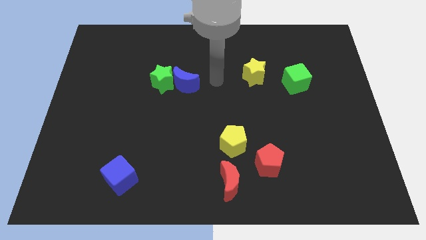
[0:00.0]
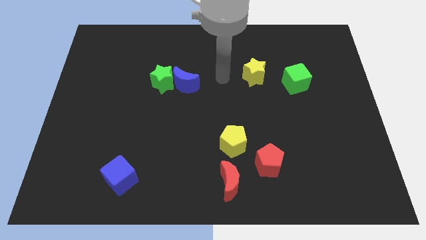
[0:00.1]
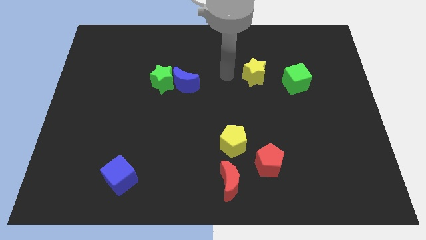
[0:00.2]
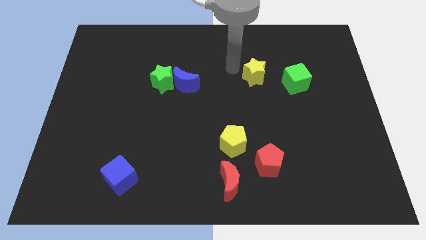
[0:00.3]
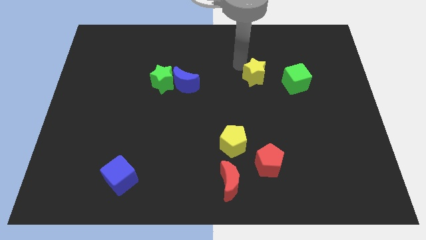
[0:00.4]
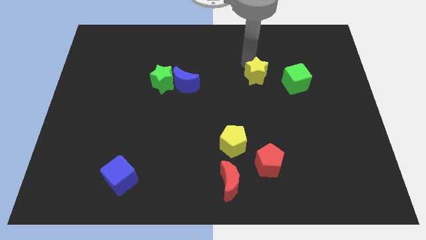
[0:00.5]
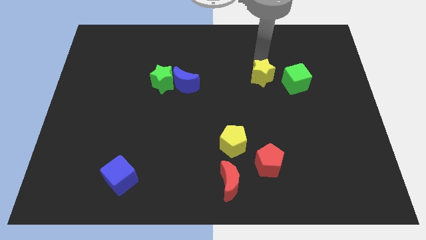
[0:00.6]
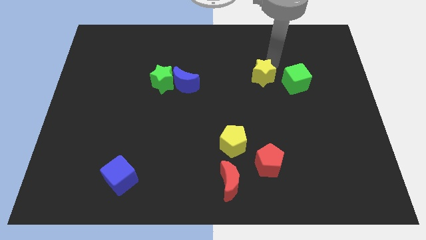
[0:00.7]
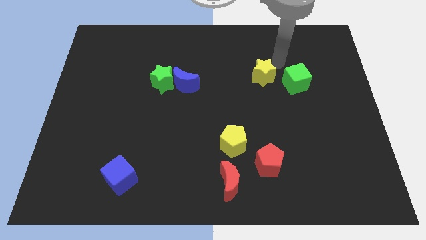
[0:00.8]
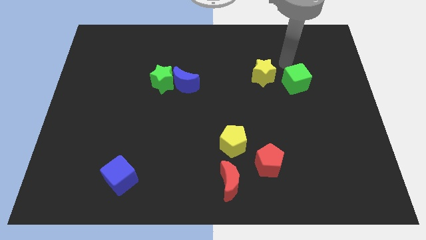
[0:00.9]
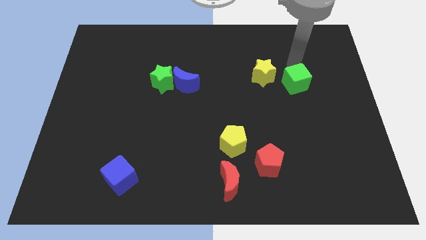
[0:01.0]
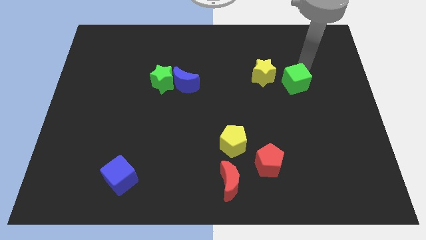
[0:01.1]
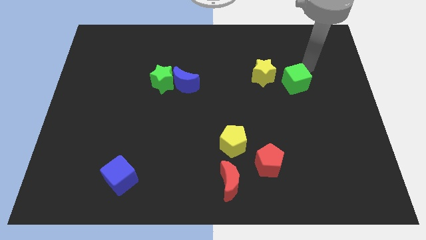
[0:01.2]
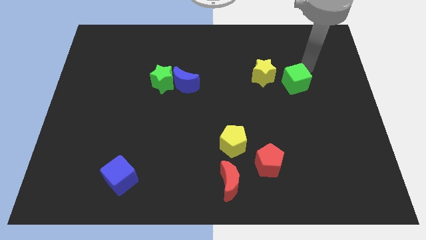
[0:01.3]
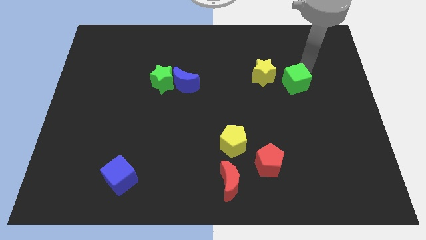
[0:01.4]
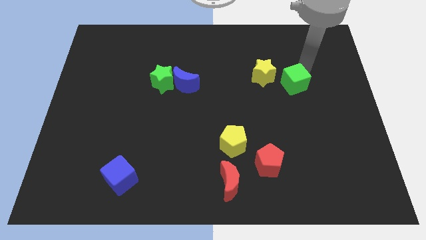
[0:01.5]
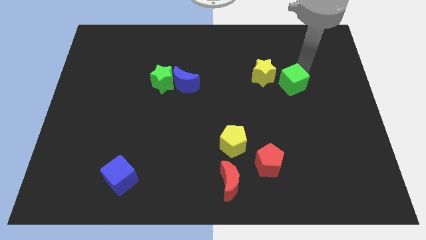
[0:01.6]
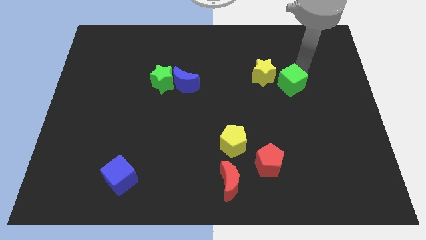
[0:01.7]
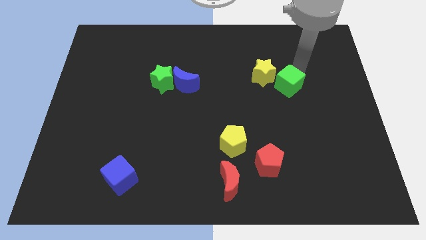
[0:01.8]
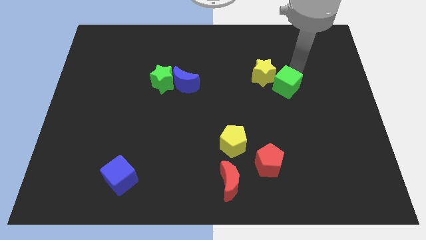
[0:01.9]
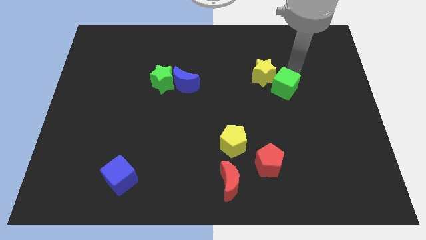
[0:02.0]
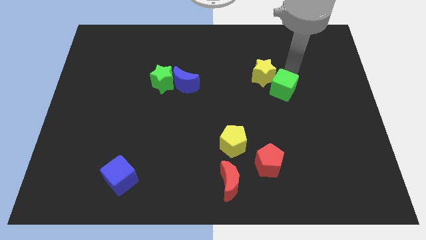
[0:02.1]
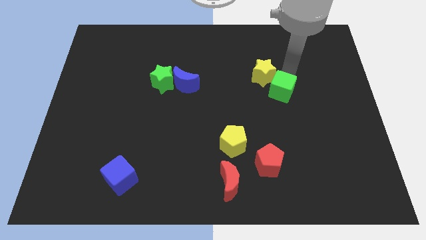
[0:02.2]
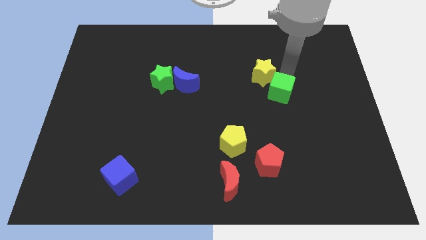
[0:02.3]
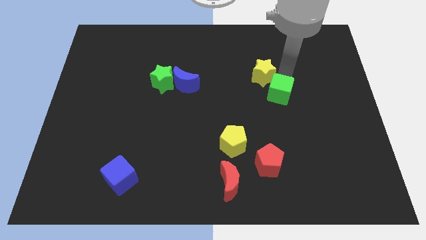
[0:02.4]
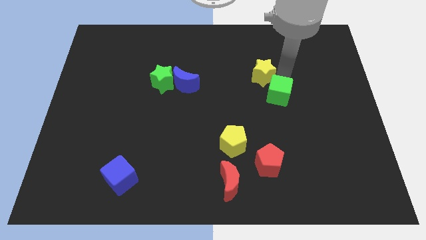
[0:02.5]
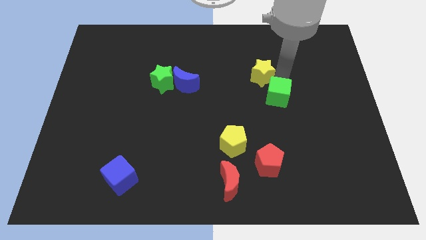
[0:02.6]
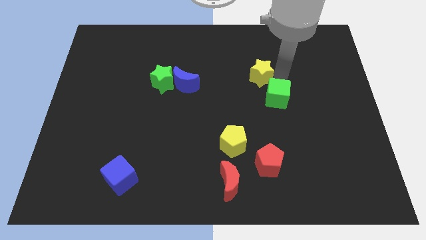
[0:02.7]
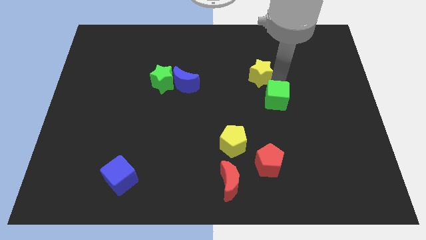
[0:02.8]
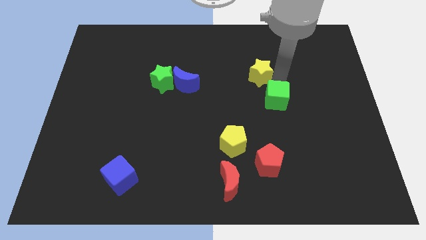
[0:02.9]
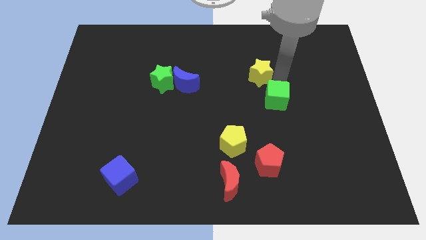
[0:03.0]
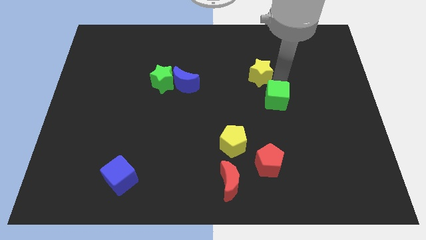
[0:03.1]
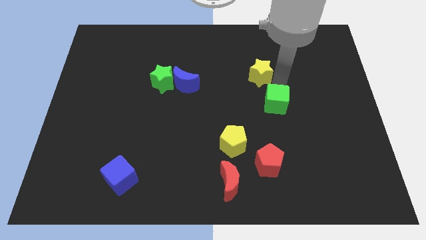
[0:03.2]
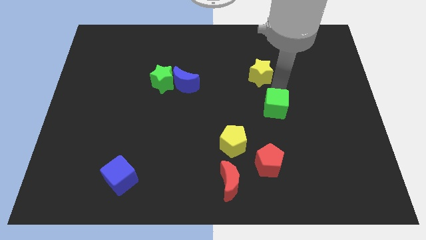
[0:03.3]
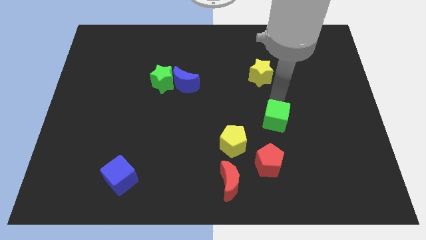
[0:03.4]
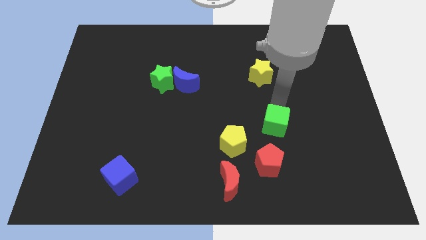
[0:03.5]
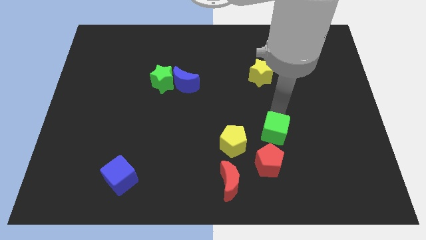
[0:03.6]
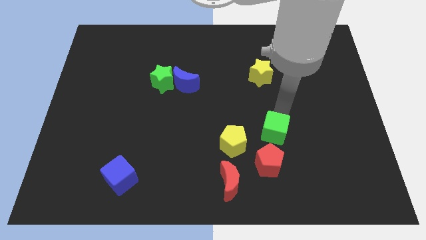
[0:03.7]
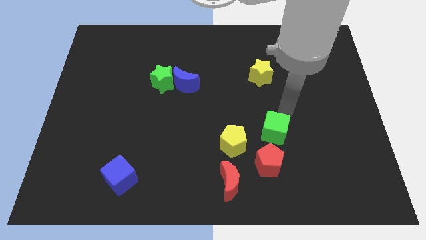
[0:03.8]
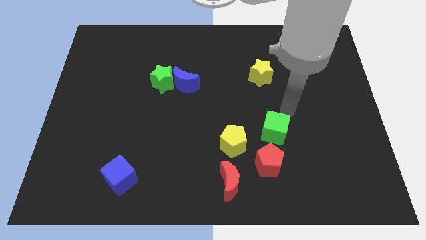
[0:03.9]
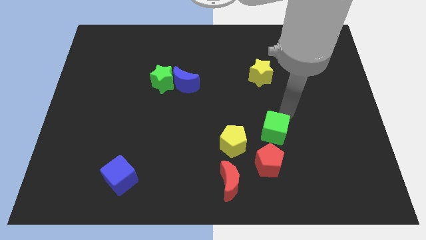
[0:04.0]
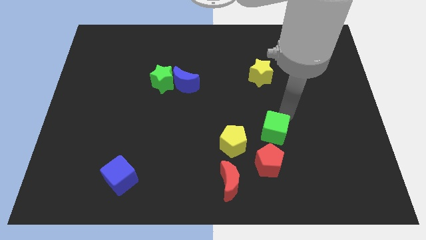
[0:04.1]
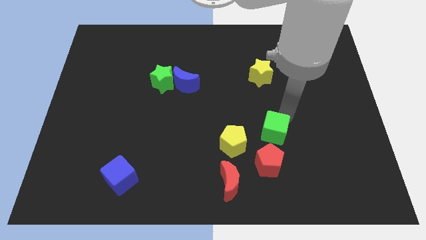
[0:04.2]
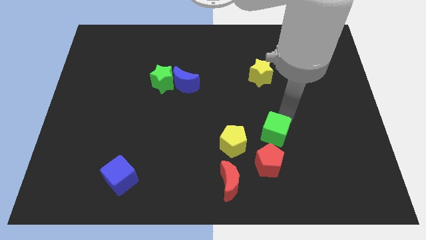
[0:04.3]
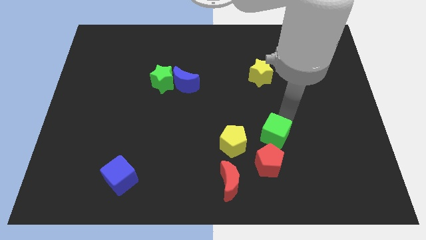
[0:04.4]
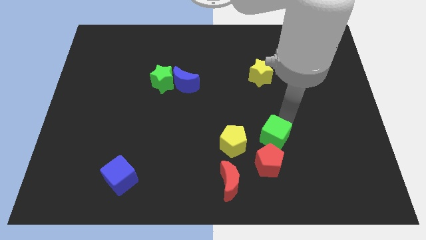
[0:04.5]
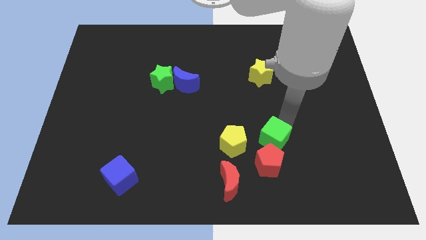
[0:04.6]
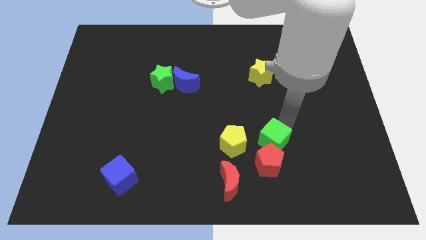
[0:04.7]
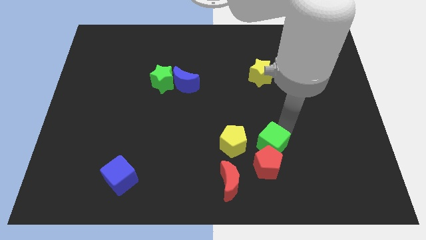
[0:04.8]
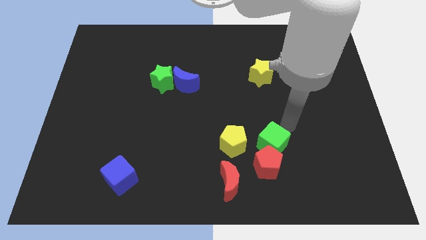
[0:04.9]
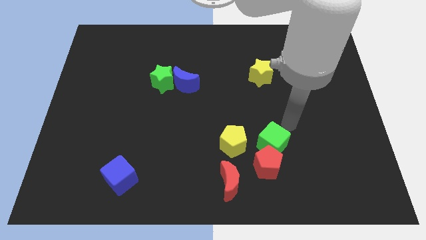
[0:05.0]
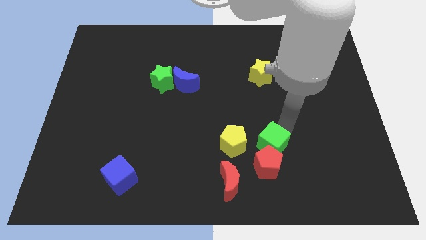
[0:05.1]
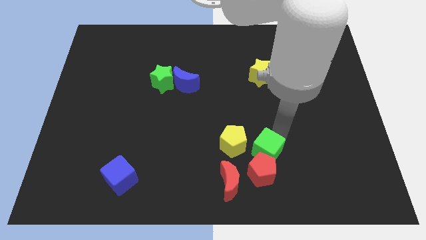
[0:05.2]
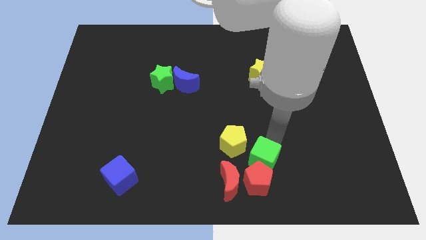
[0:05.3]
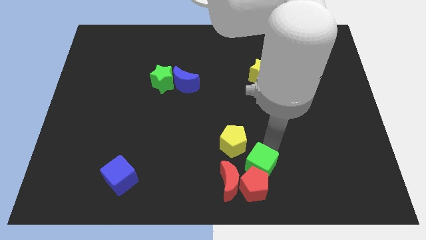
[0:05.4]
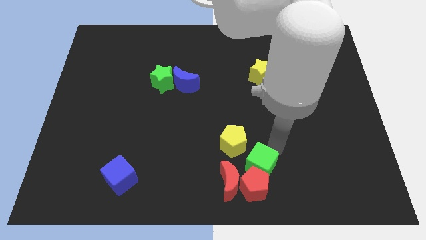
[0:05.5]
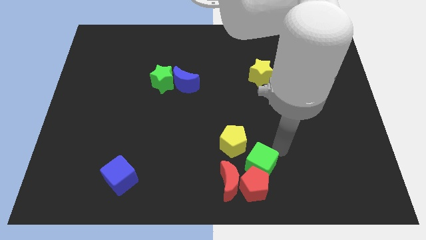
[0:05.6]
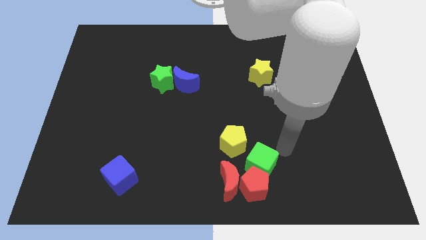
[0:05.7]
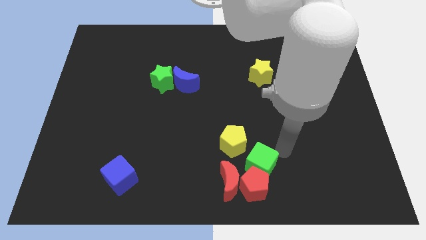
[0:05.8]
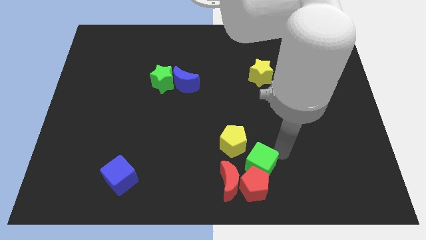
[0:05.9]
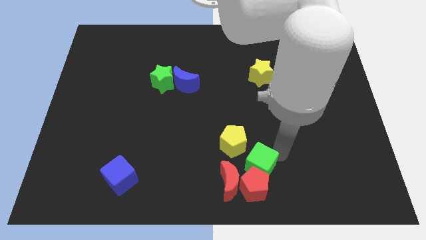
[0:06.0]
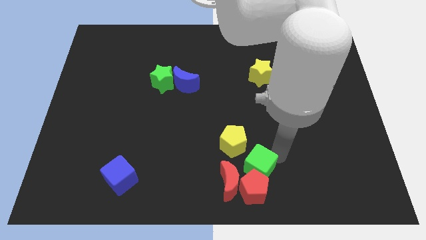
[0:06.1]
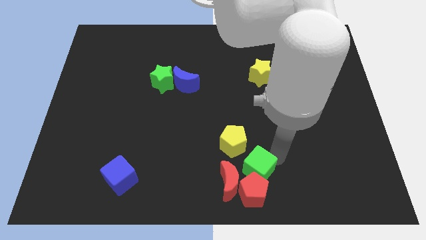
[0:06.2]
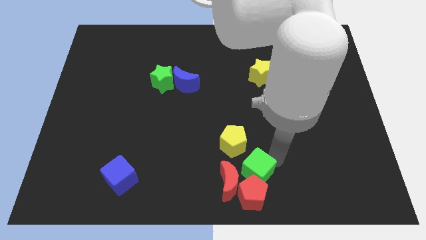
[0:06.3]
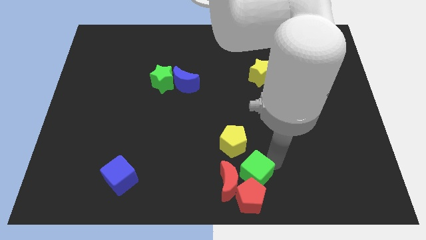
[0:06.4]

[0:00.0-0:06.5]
put the green cube to the red moon
